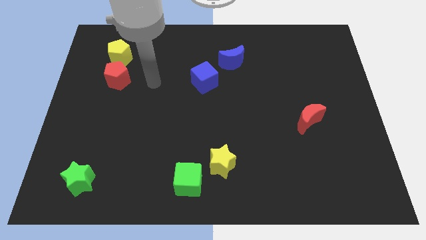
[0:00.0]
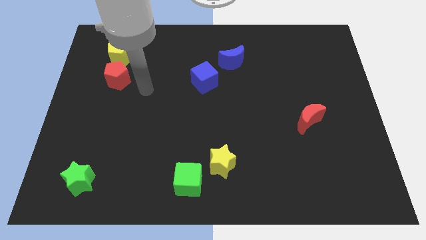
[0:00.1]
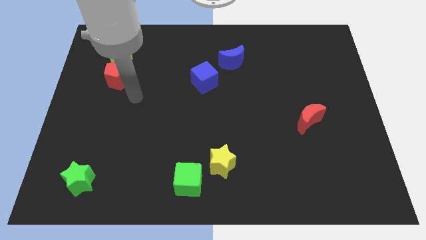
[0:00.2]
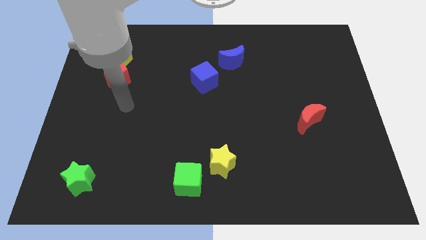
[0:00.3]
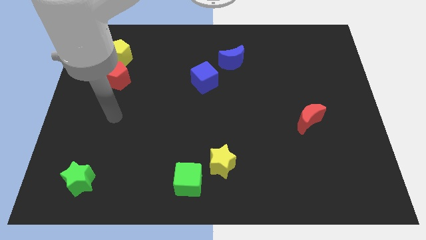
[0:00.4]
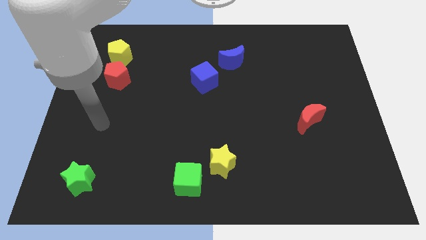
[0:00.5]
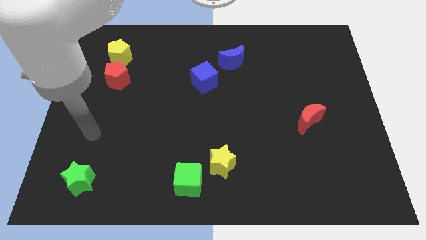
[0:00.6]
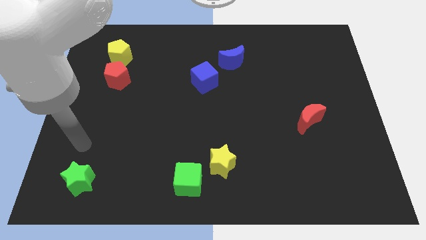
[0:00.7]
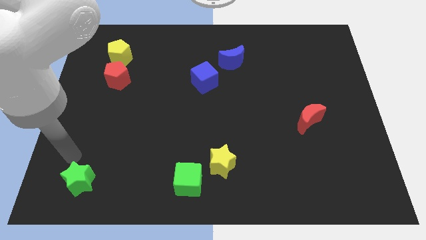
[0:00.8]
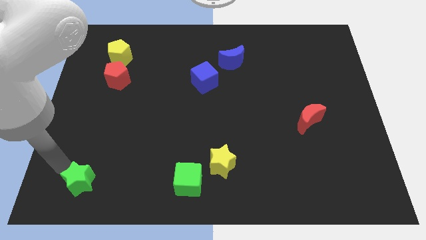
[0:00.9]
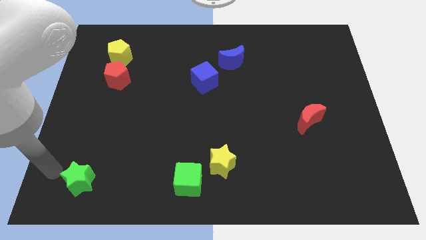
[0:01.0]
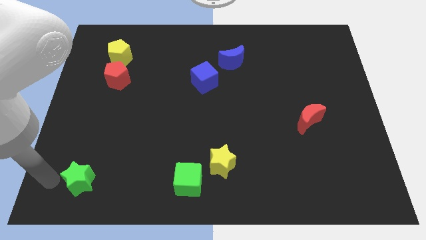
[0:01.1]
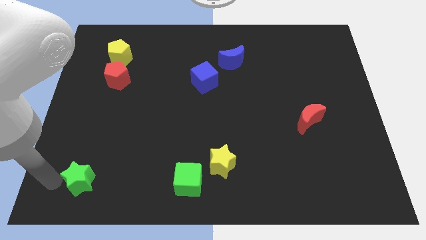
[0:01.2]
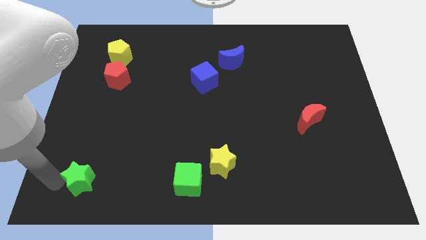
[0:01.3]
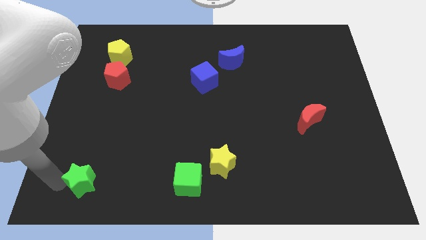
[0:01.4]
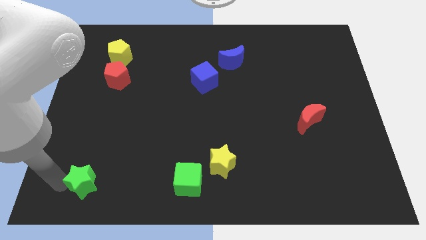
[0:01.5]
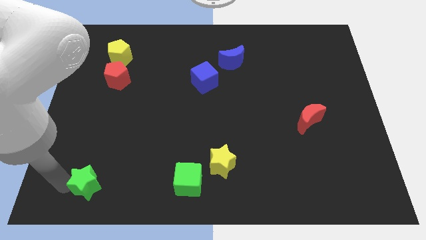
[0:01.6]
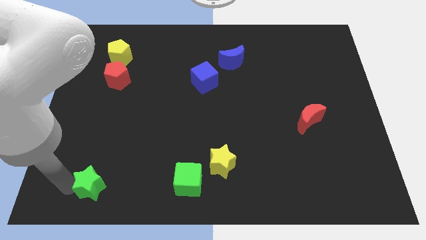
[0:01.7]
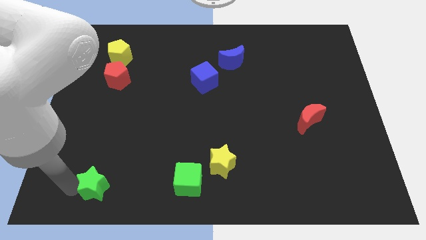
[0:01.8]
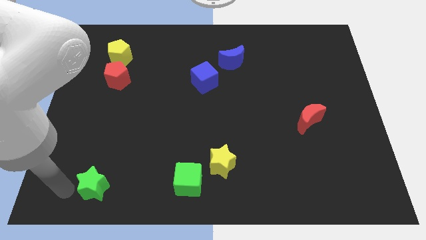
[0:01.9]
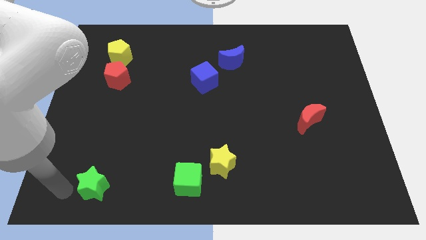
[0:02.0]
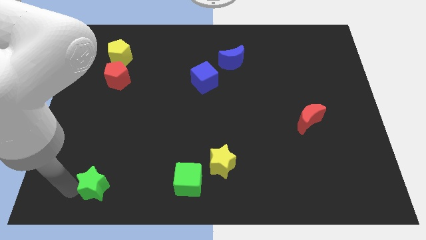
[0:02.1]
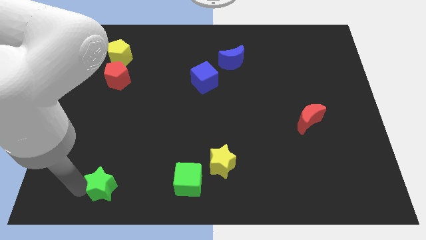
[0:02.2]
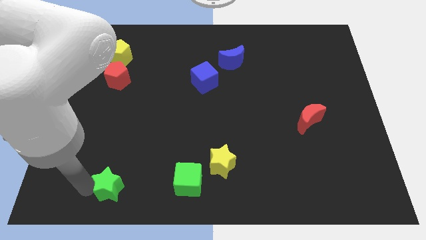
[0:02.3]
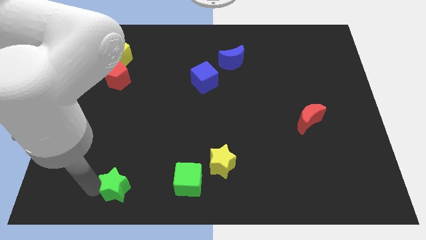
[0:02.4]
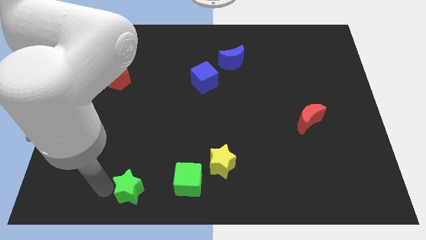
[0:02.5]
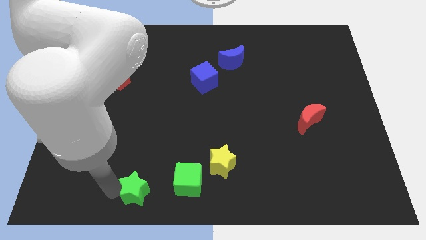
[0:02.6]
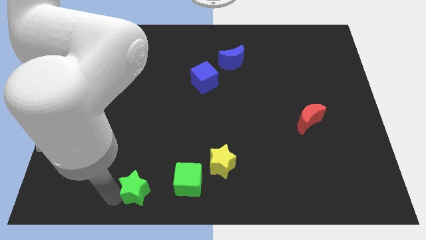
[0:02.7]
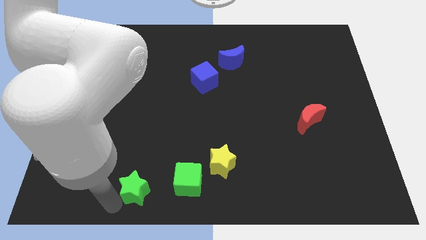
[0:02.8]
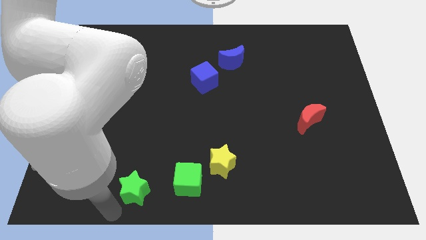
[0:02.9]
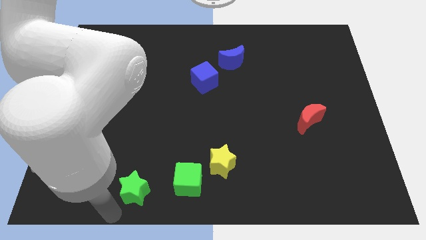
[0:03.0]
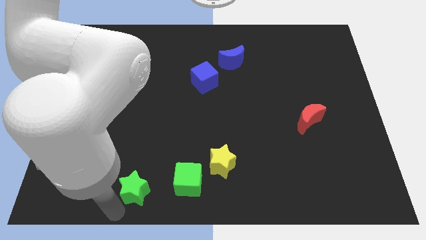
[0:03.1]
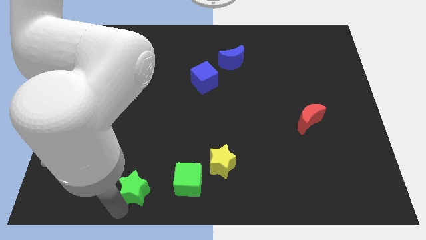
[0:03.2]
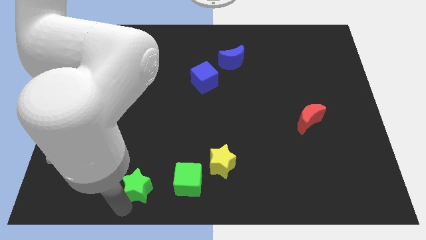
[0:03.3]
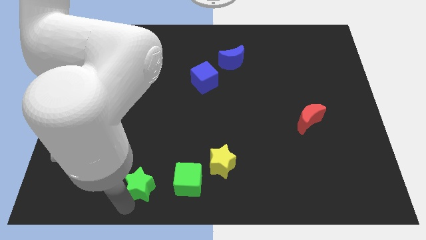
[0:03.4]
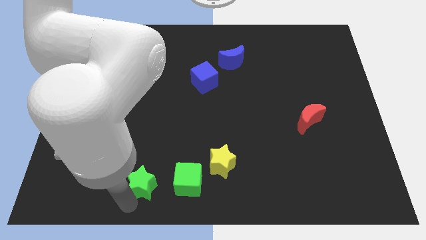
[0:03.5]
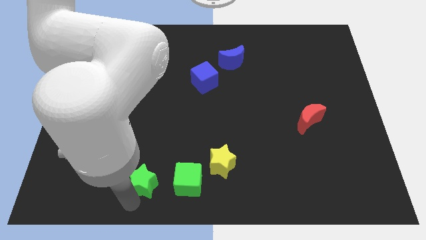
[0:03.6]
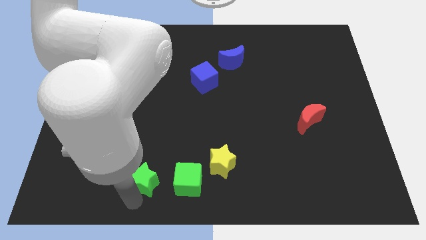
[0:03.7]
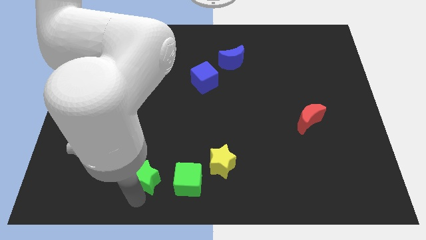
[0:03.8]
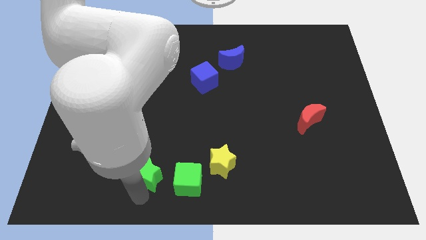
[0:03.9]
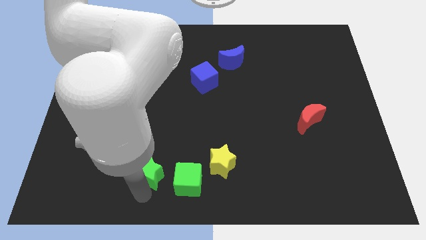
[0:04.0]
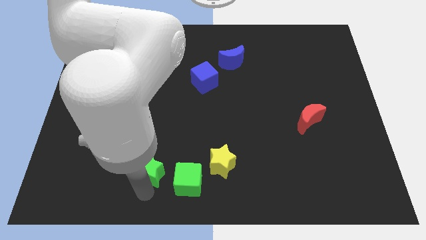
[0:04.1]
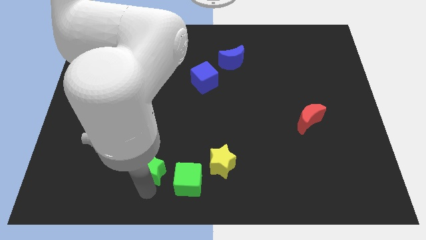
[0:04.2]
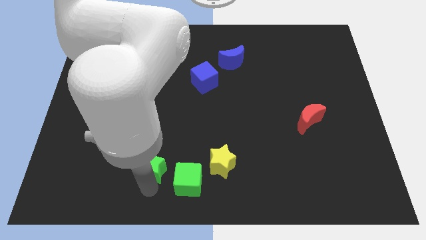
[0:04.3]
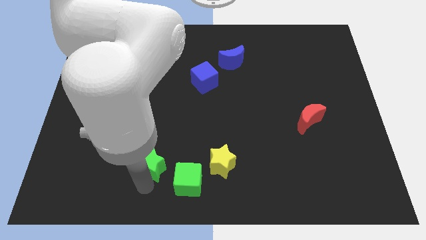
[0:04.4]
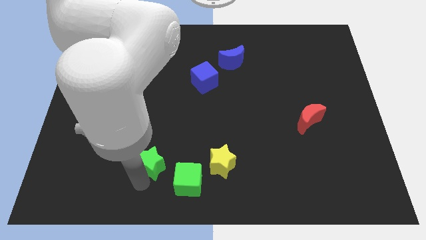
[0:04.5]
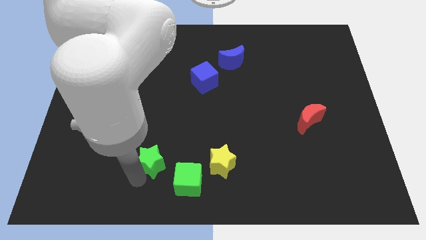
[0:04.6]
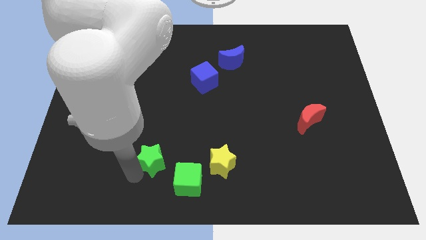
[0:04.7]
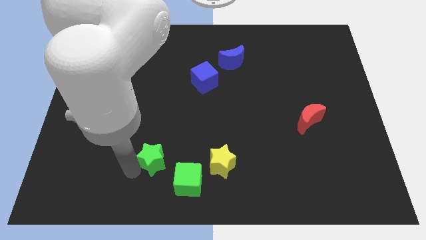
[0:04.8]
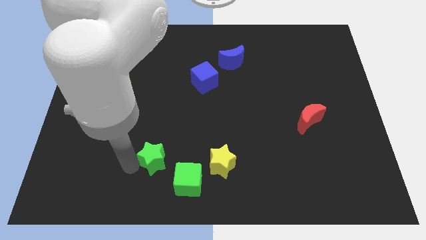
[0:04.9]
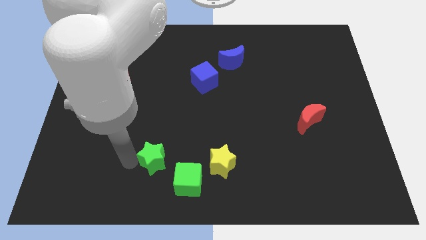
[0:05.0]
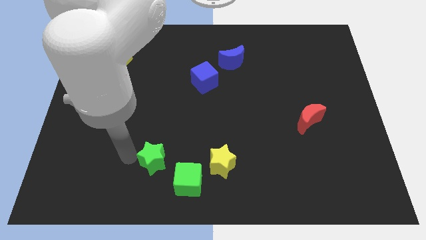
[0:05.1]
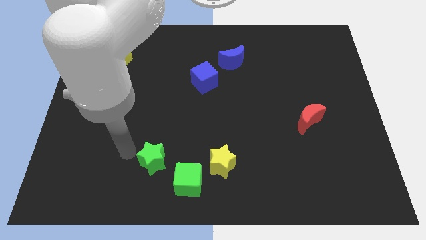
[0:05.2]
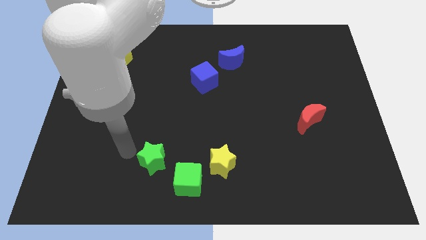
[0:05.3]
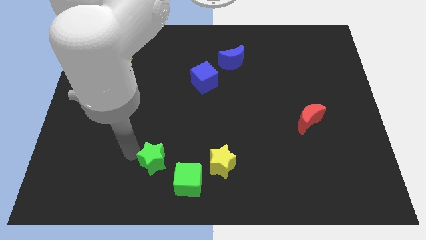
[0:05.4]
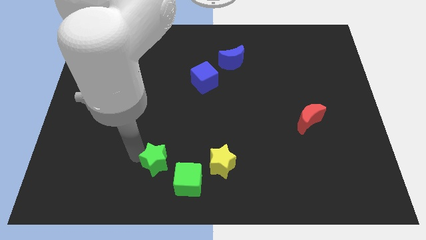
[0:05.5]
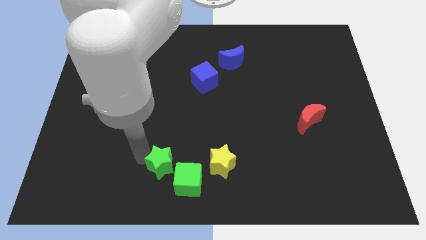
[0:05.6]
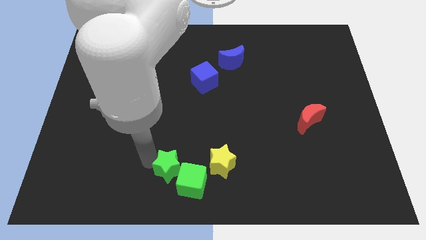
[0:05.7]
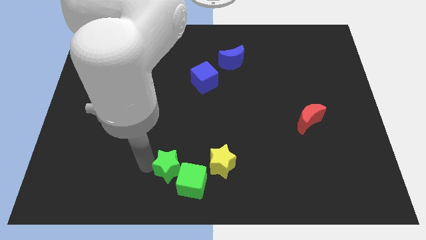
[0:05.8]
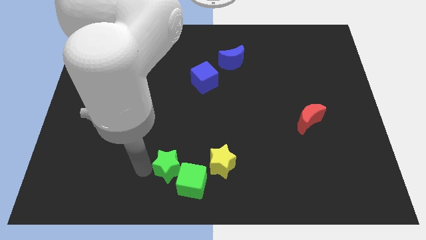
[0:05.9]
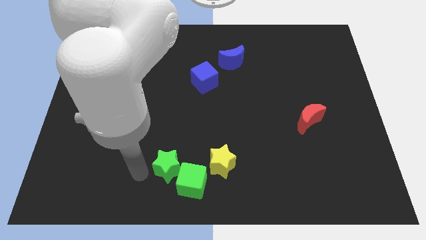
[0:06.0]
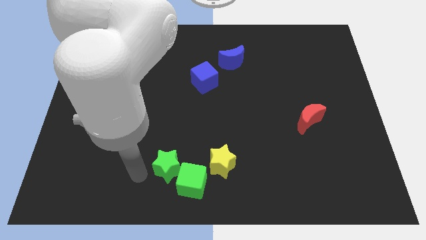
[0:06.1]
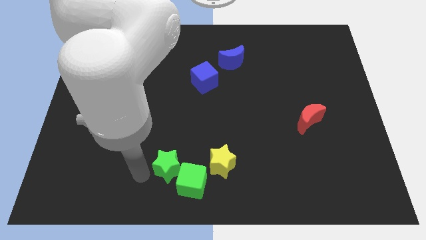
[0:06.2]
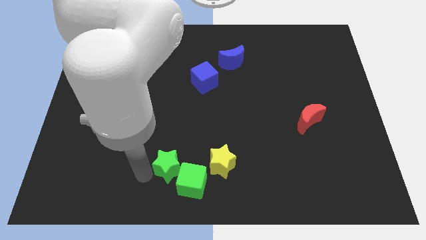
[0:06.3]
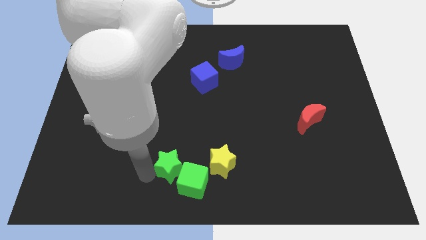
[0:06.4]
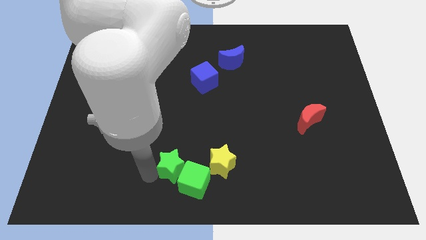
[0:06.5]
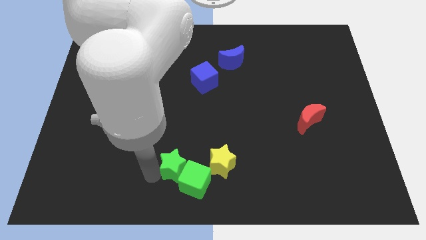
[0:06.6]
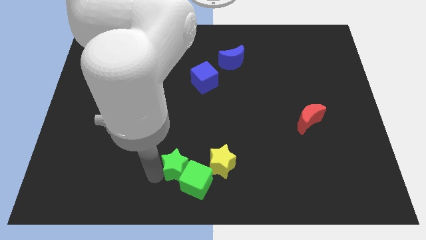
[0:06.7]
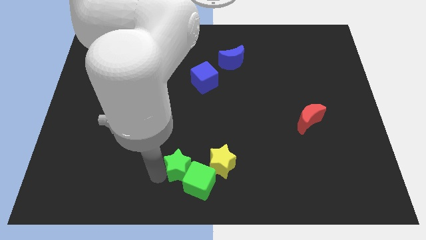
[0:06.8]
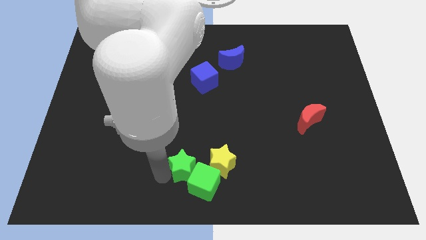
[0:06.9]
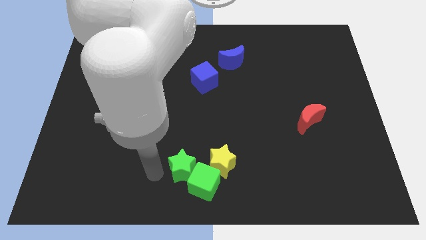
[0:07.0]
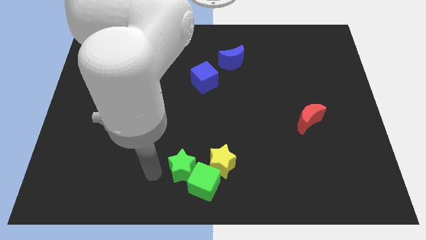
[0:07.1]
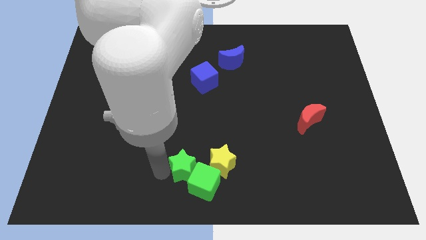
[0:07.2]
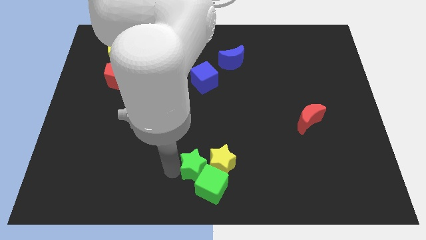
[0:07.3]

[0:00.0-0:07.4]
slide the green star towards the yellow star

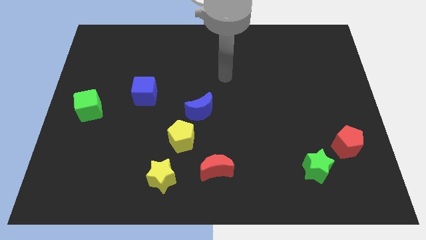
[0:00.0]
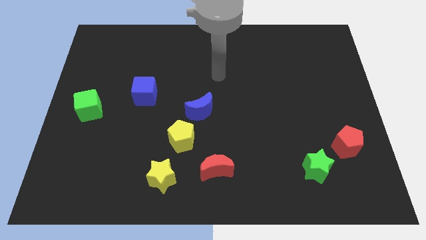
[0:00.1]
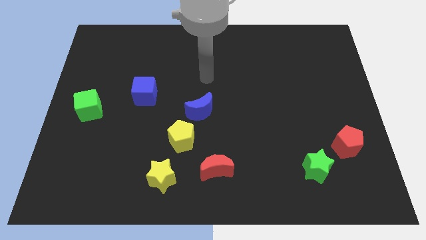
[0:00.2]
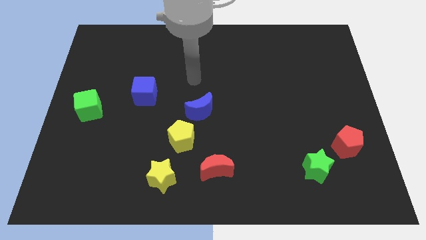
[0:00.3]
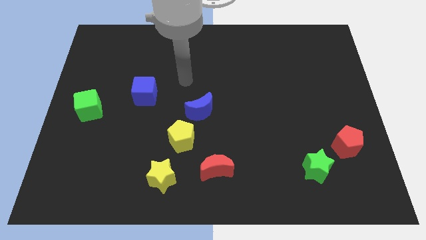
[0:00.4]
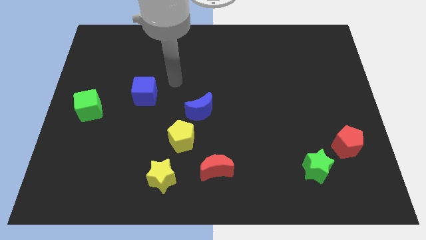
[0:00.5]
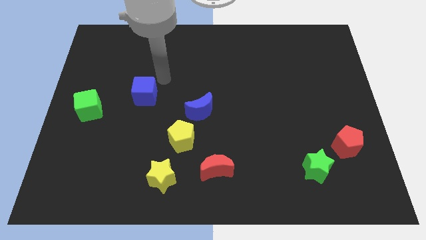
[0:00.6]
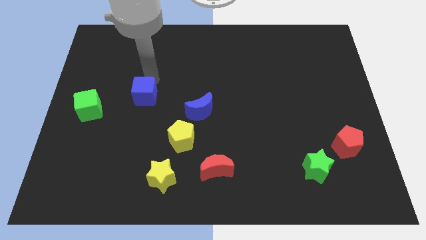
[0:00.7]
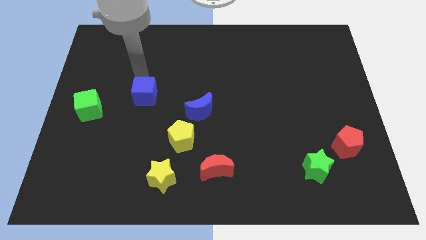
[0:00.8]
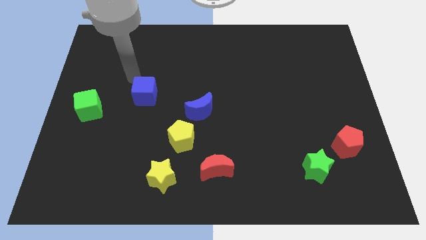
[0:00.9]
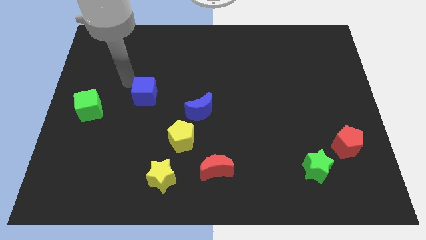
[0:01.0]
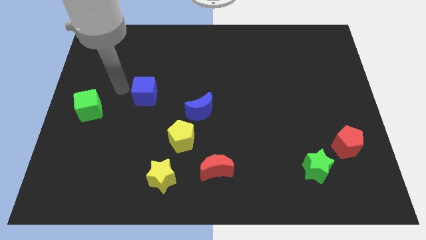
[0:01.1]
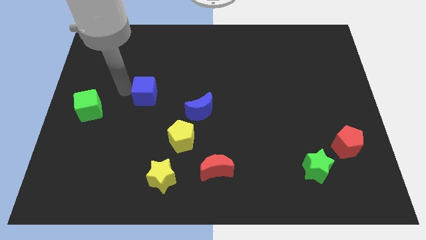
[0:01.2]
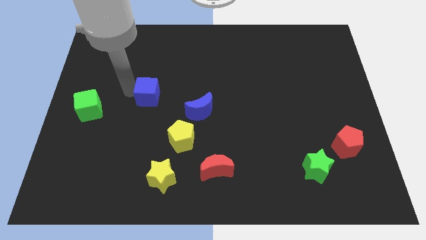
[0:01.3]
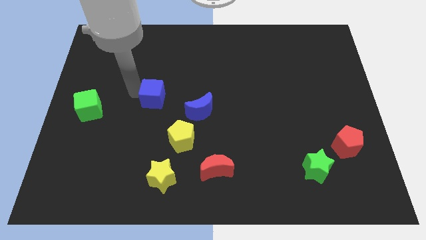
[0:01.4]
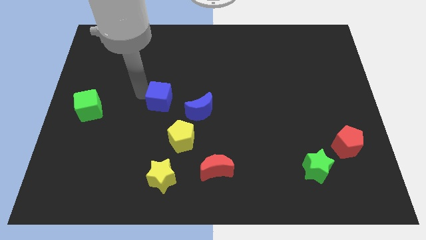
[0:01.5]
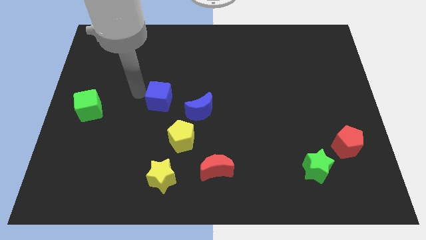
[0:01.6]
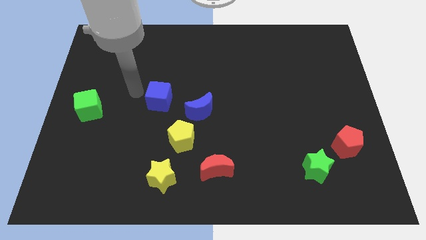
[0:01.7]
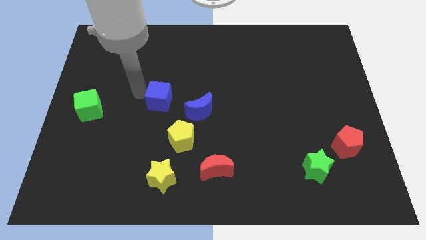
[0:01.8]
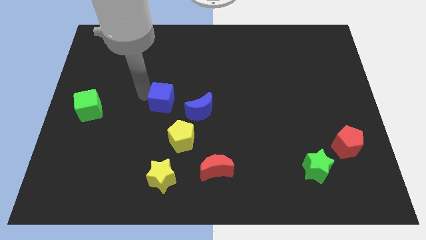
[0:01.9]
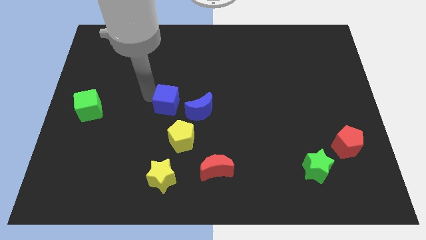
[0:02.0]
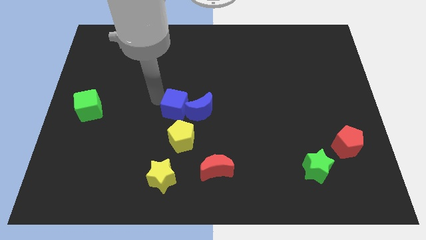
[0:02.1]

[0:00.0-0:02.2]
slide the blue cube next to the blue moon
